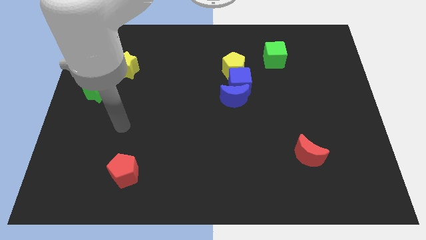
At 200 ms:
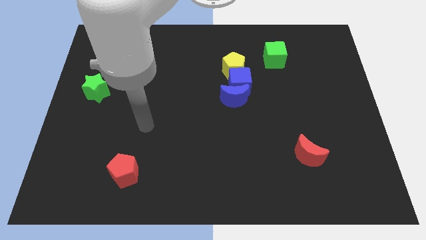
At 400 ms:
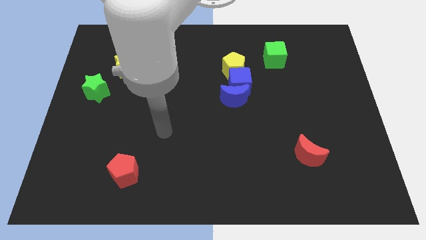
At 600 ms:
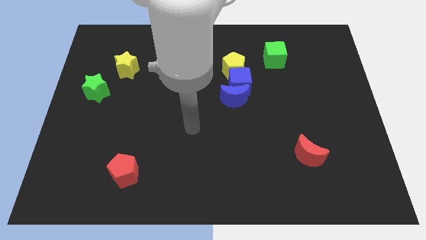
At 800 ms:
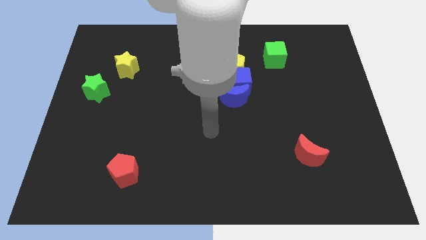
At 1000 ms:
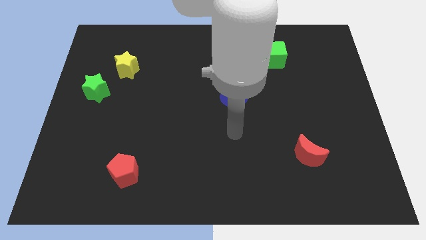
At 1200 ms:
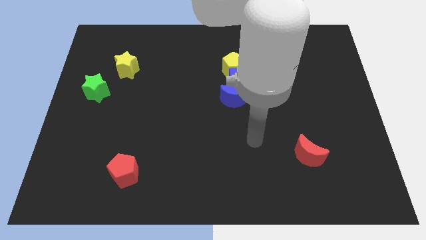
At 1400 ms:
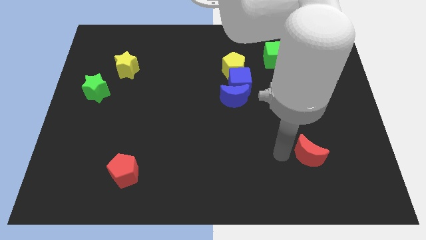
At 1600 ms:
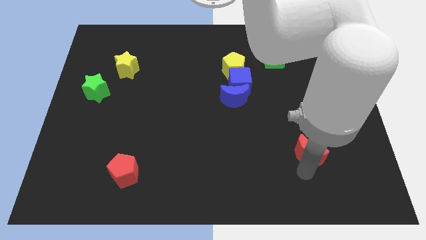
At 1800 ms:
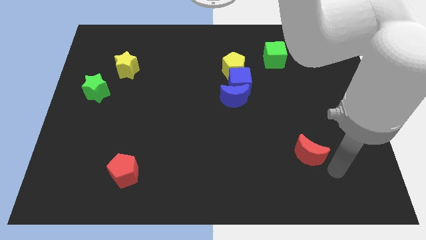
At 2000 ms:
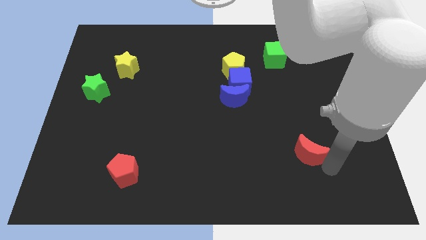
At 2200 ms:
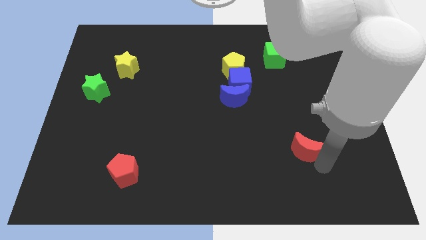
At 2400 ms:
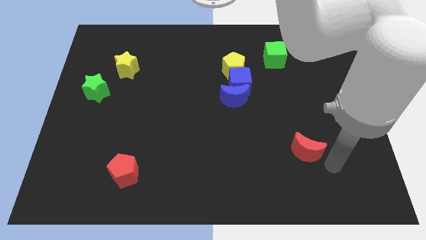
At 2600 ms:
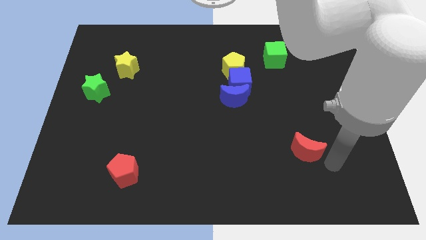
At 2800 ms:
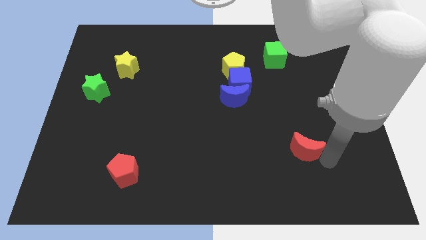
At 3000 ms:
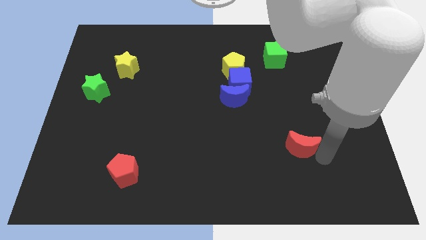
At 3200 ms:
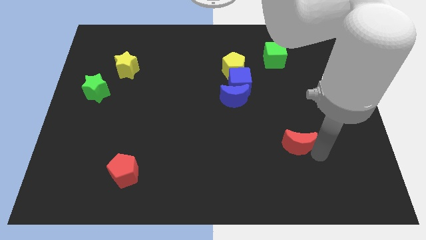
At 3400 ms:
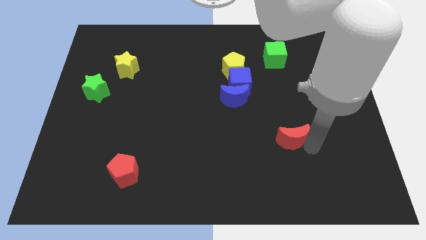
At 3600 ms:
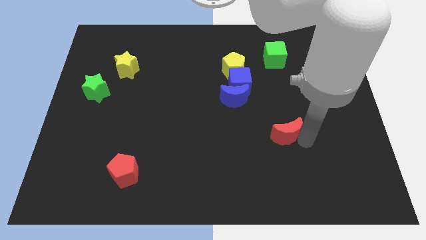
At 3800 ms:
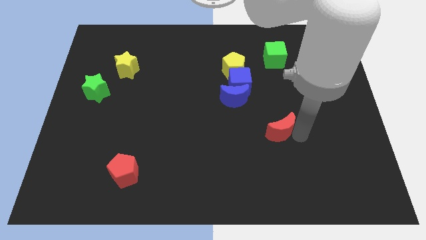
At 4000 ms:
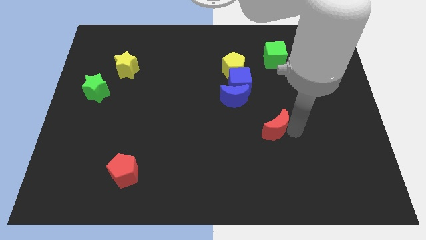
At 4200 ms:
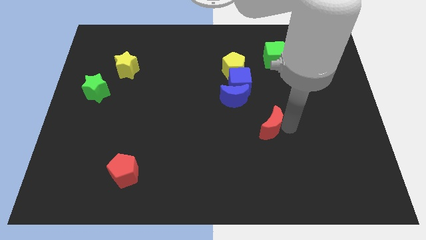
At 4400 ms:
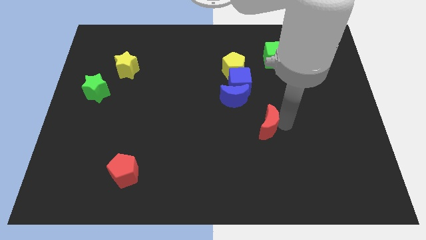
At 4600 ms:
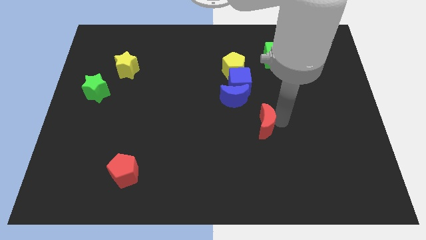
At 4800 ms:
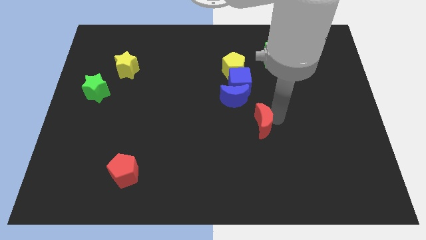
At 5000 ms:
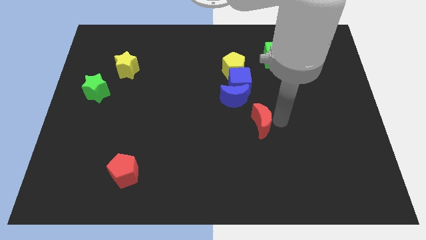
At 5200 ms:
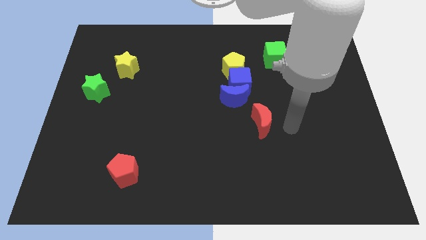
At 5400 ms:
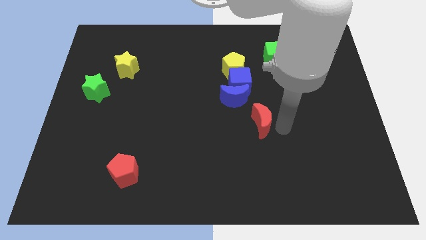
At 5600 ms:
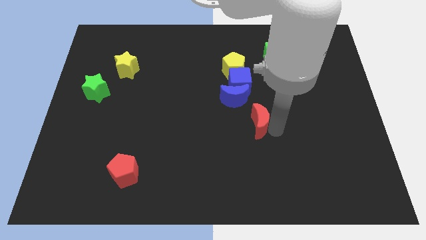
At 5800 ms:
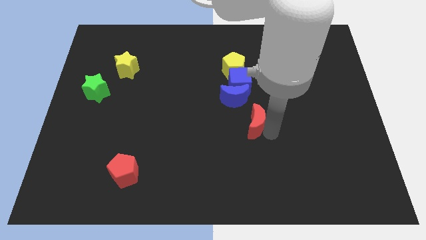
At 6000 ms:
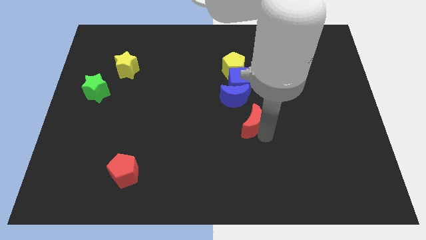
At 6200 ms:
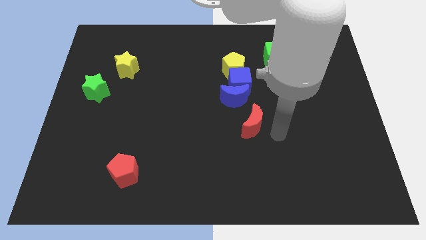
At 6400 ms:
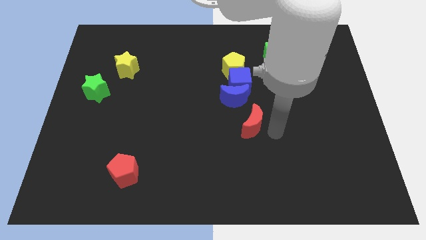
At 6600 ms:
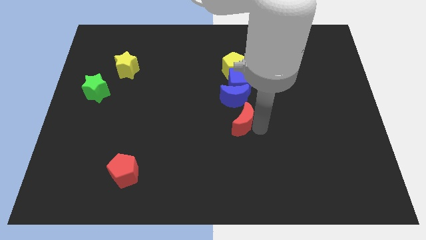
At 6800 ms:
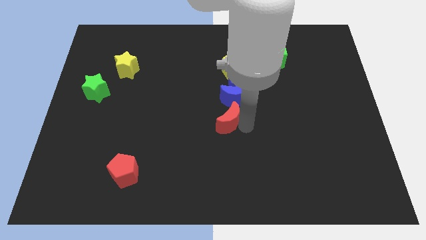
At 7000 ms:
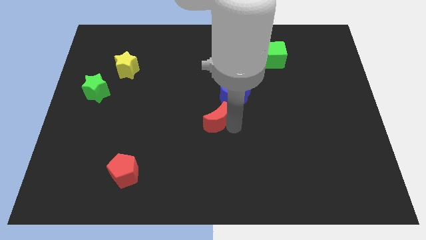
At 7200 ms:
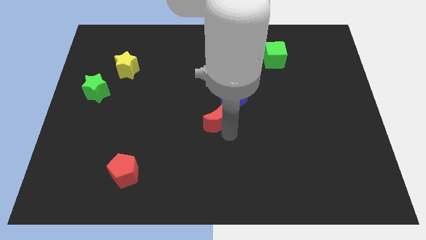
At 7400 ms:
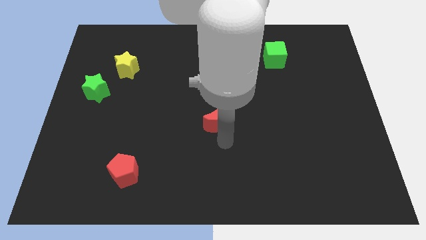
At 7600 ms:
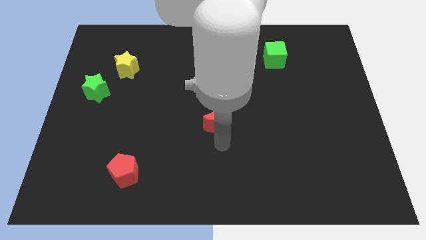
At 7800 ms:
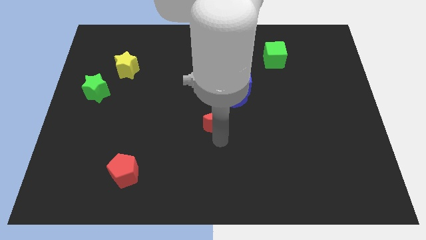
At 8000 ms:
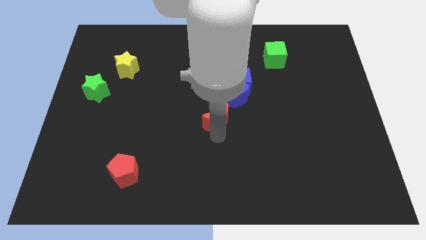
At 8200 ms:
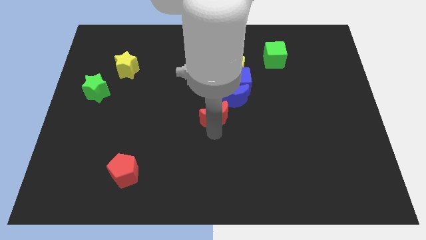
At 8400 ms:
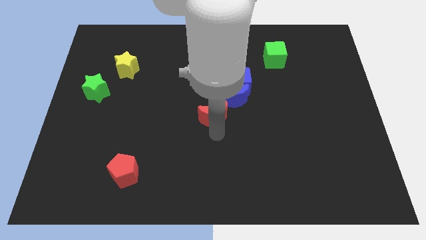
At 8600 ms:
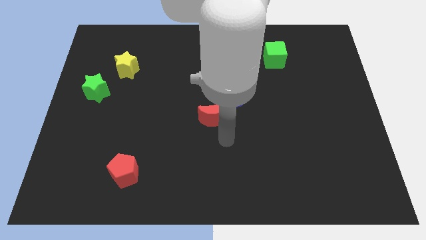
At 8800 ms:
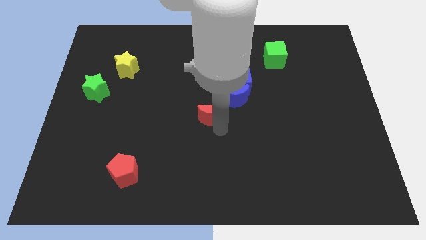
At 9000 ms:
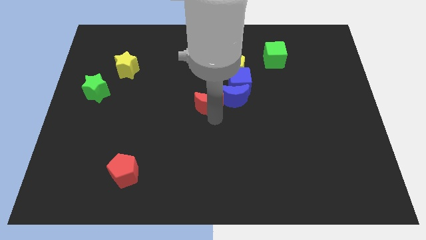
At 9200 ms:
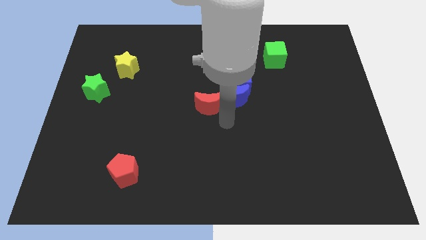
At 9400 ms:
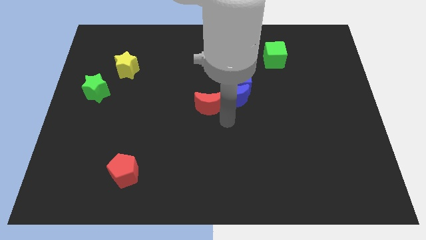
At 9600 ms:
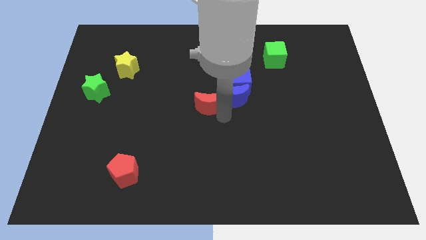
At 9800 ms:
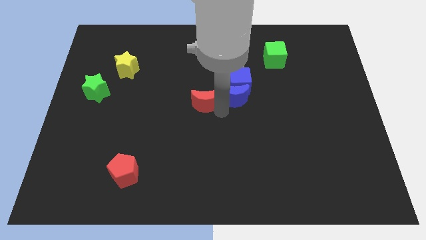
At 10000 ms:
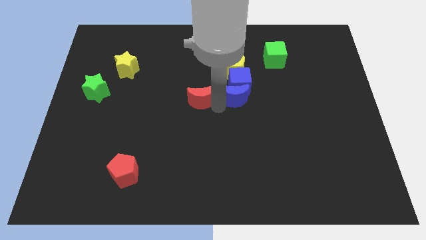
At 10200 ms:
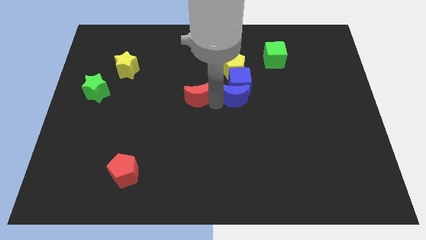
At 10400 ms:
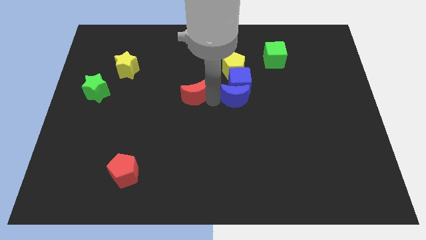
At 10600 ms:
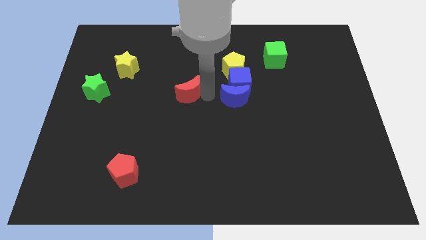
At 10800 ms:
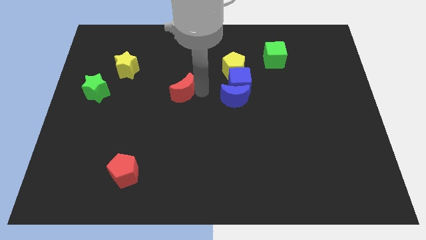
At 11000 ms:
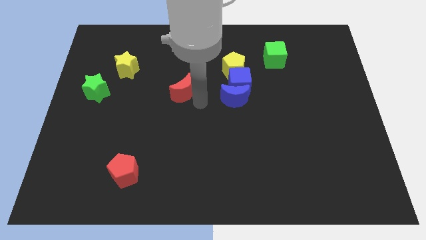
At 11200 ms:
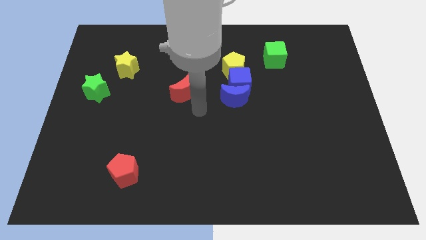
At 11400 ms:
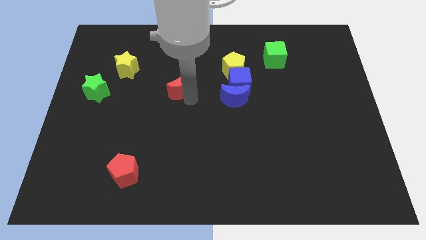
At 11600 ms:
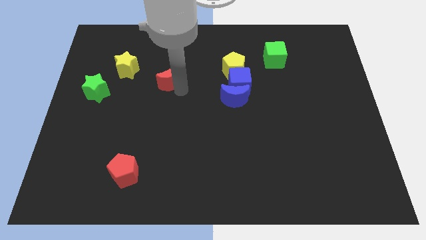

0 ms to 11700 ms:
put the red moon to the right side of the yellow star
